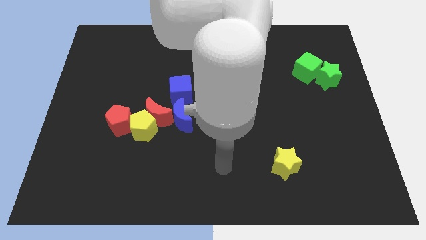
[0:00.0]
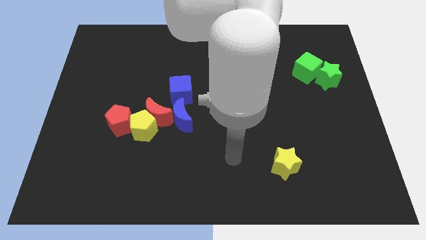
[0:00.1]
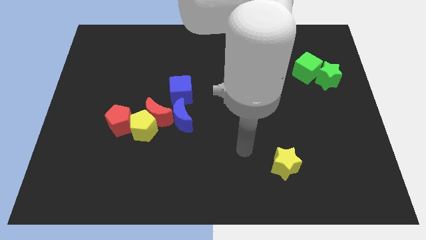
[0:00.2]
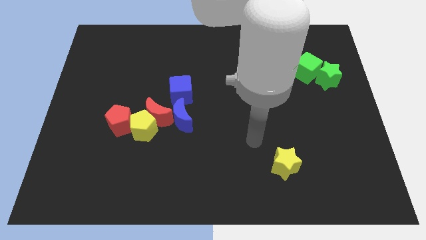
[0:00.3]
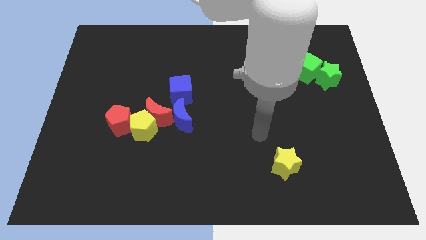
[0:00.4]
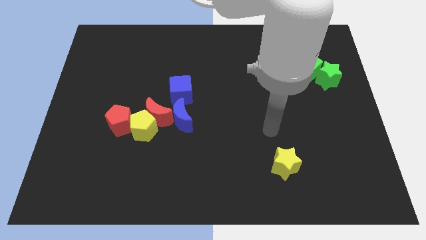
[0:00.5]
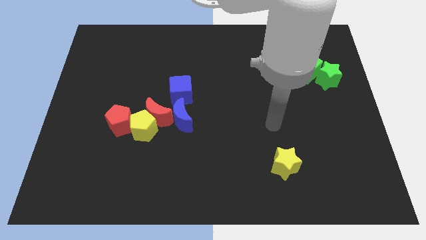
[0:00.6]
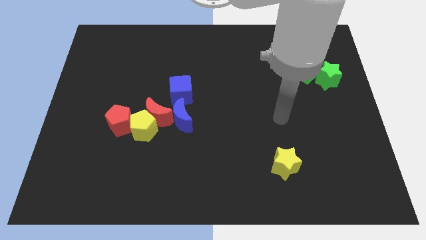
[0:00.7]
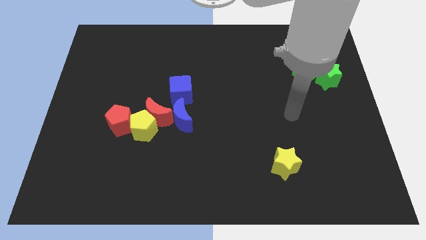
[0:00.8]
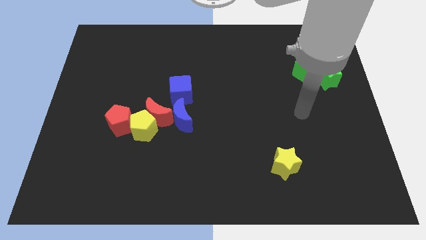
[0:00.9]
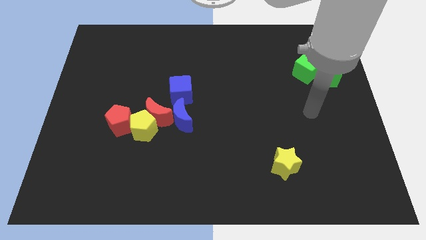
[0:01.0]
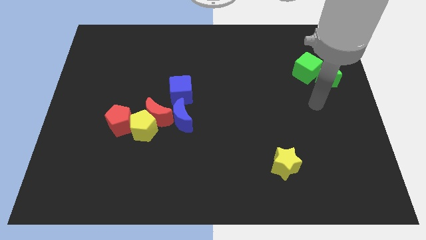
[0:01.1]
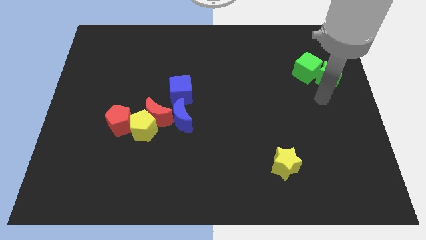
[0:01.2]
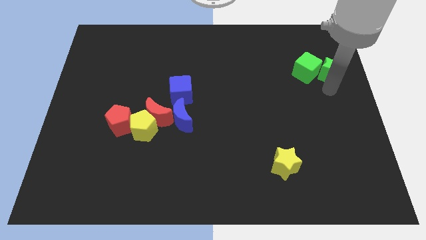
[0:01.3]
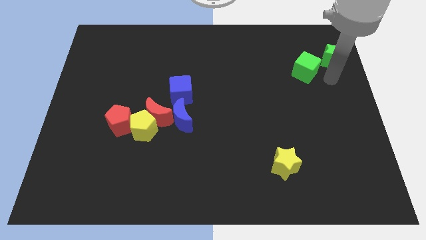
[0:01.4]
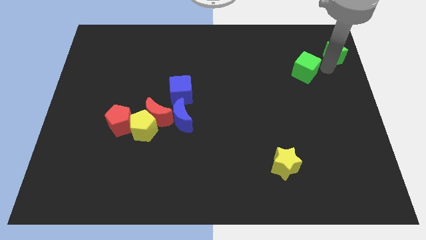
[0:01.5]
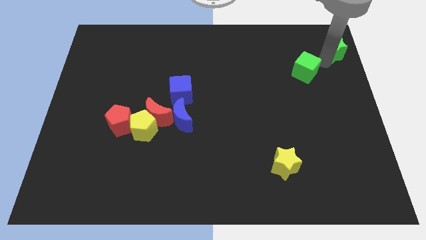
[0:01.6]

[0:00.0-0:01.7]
separate the green cube from the green star

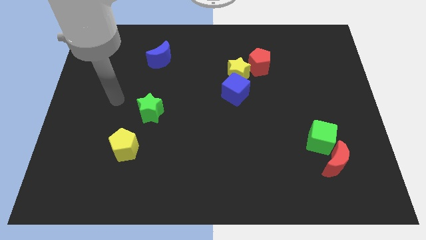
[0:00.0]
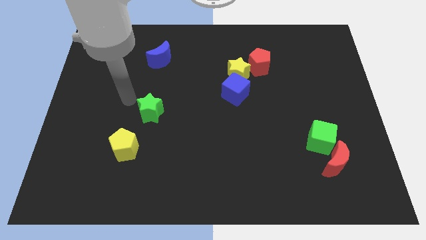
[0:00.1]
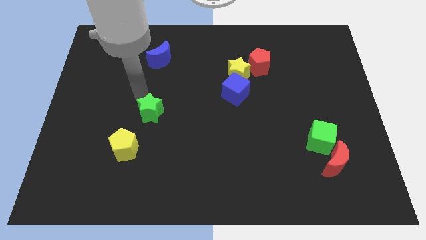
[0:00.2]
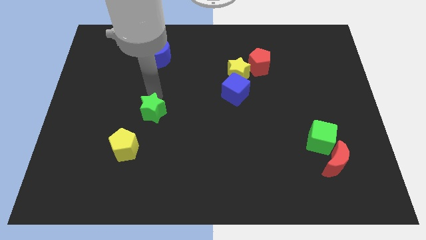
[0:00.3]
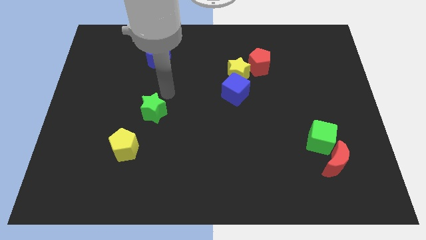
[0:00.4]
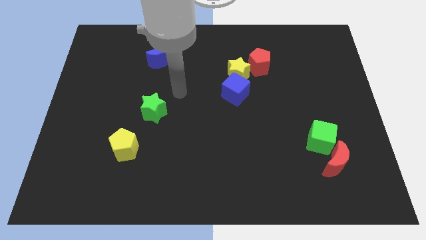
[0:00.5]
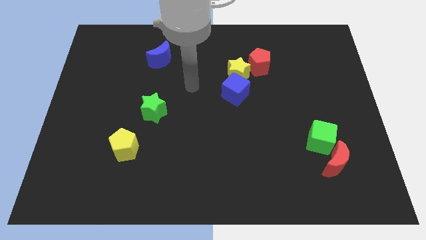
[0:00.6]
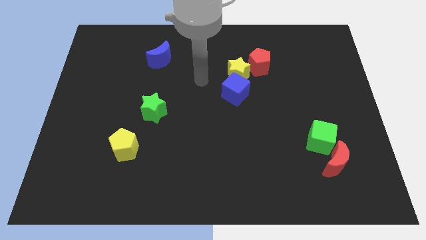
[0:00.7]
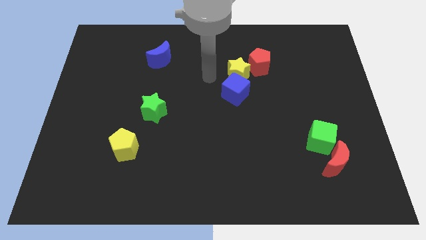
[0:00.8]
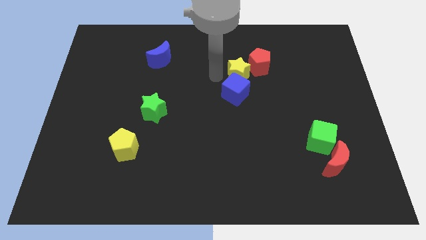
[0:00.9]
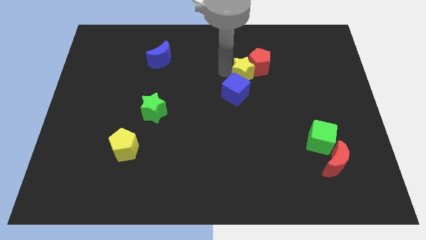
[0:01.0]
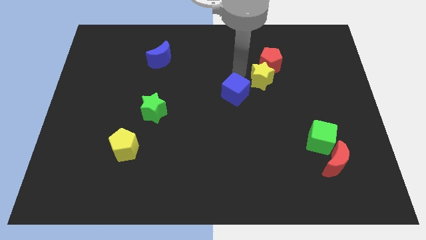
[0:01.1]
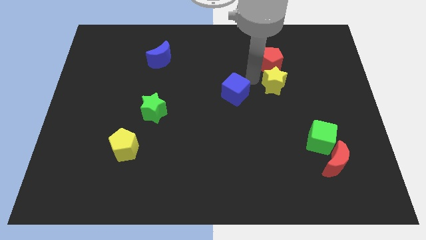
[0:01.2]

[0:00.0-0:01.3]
move the blue cube away from the yellow star

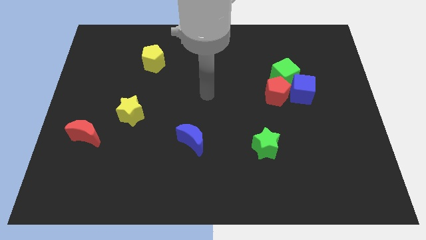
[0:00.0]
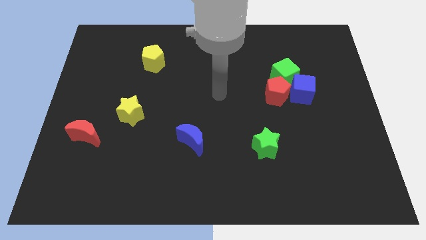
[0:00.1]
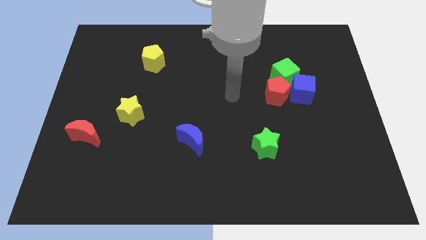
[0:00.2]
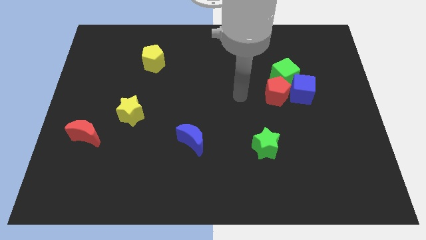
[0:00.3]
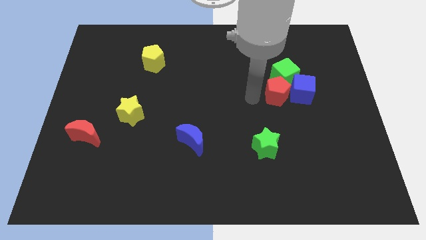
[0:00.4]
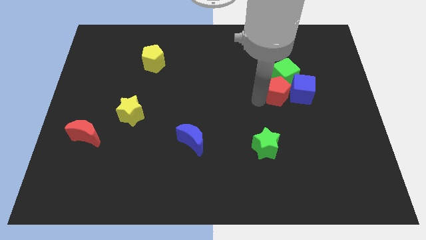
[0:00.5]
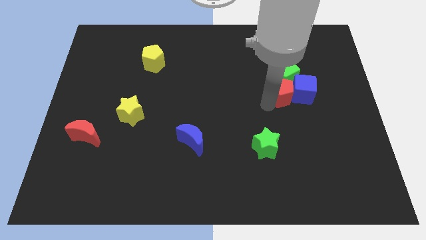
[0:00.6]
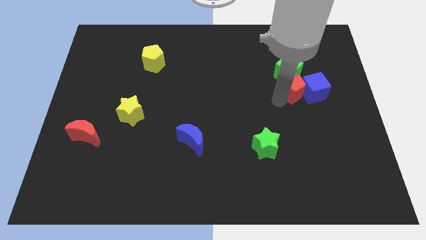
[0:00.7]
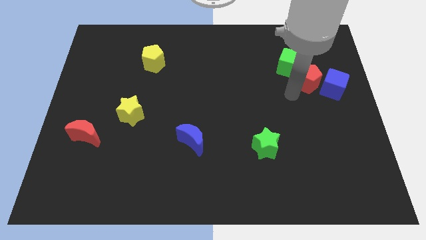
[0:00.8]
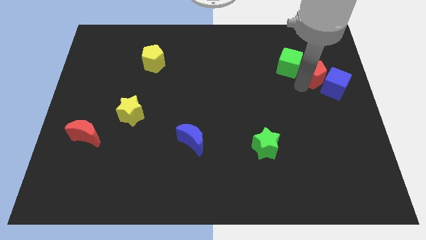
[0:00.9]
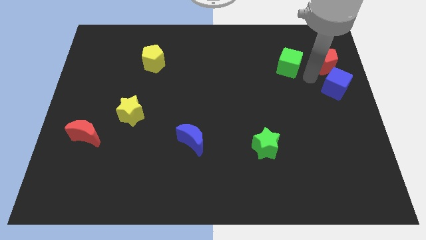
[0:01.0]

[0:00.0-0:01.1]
move the green cube away from the red pentagon and blue cube

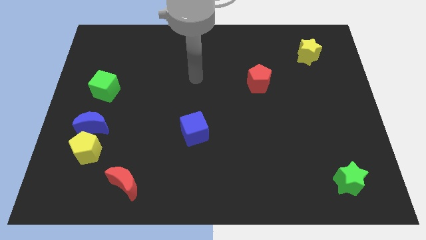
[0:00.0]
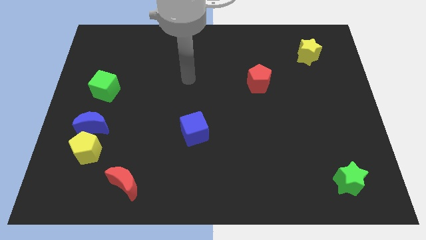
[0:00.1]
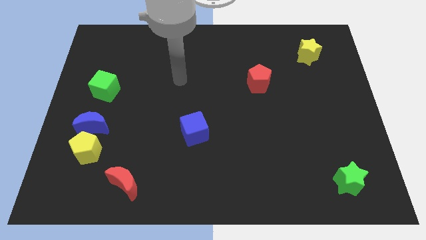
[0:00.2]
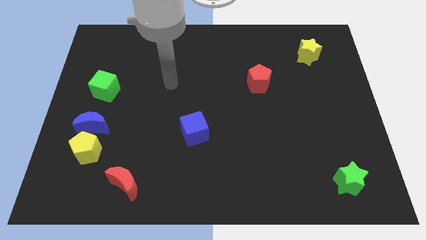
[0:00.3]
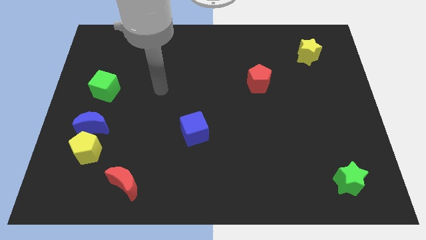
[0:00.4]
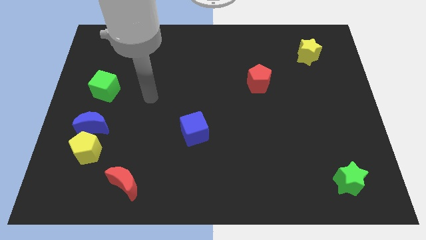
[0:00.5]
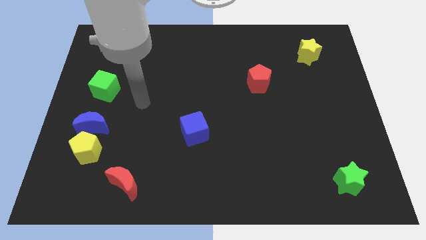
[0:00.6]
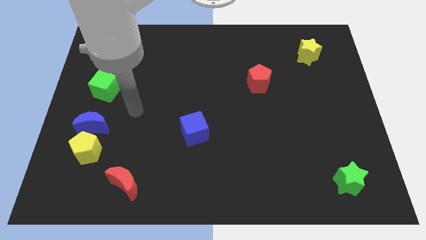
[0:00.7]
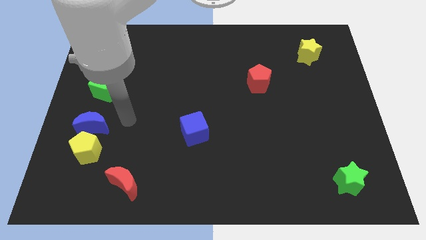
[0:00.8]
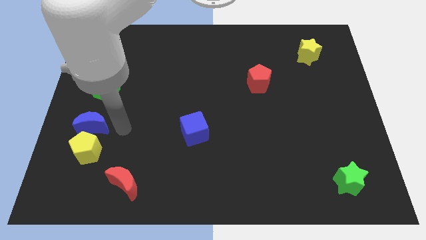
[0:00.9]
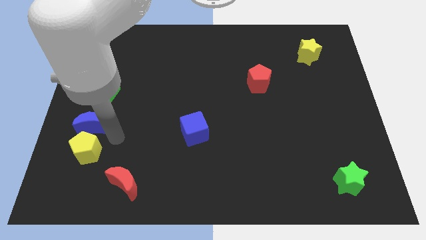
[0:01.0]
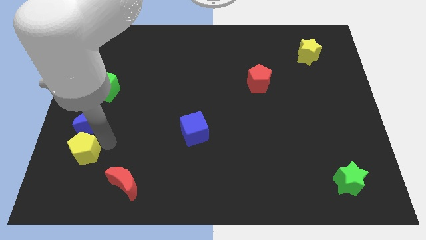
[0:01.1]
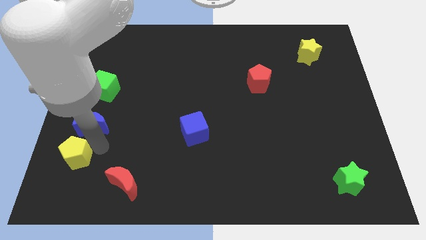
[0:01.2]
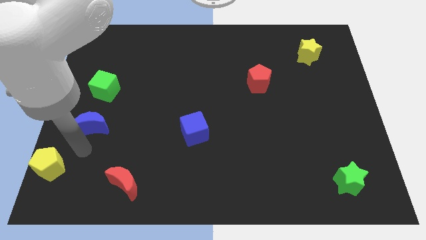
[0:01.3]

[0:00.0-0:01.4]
move the blue moon away from the yellow pentagon

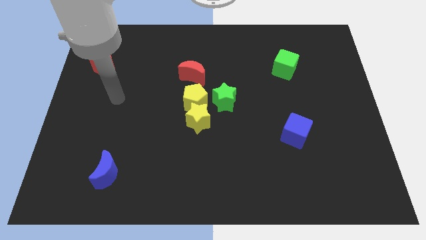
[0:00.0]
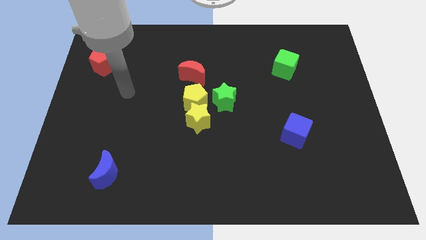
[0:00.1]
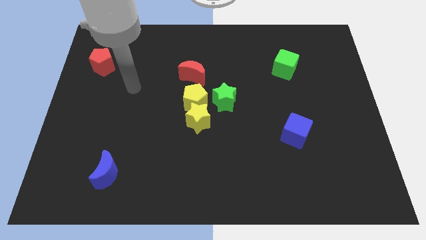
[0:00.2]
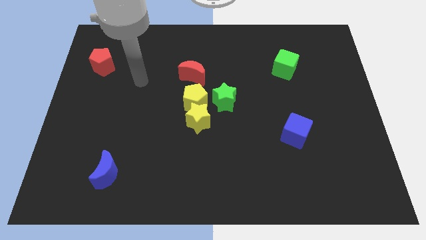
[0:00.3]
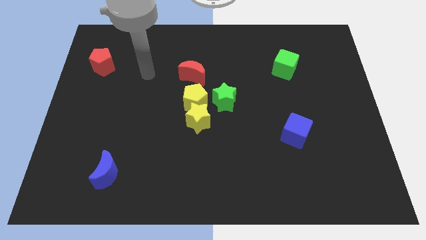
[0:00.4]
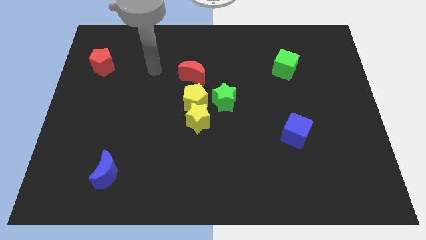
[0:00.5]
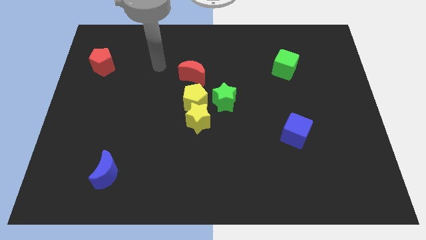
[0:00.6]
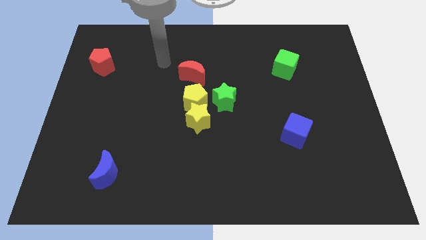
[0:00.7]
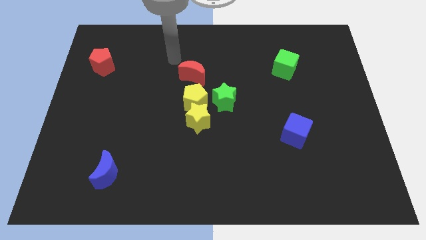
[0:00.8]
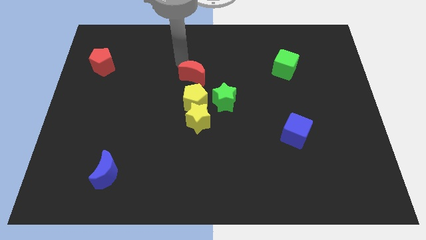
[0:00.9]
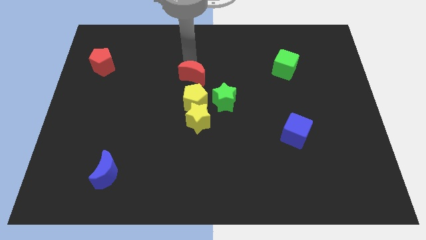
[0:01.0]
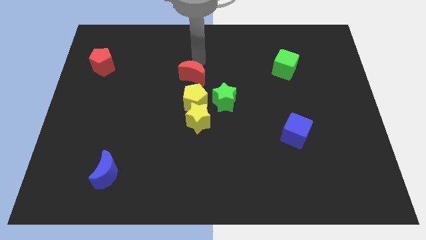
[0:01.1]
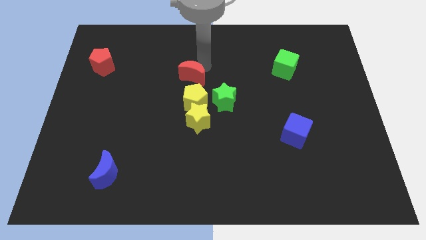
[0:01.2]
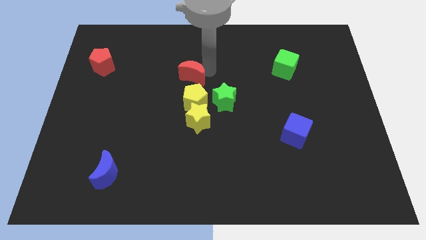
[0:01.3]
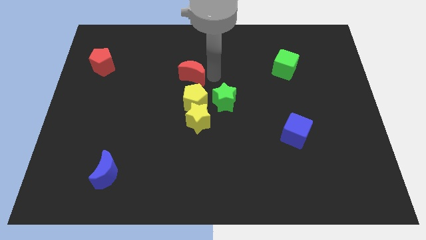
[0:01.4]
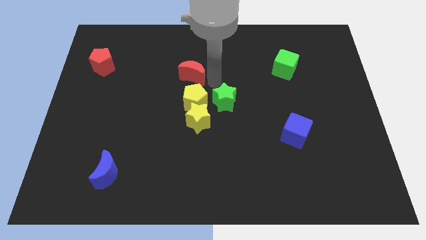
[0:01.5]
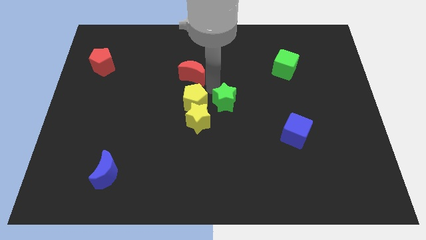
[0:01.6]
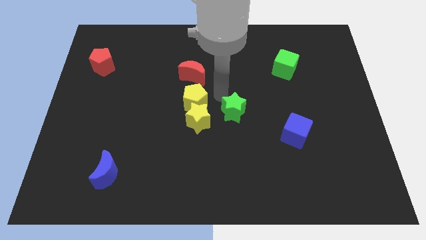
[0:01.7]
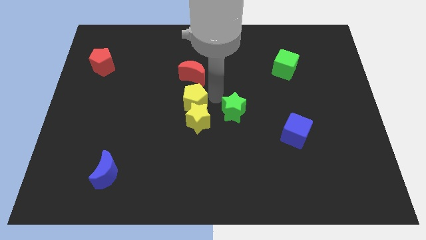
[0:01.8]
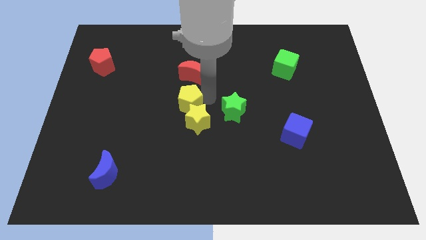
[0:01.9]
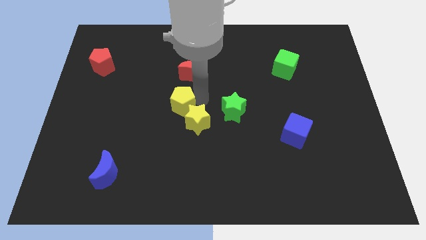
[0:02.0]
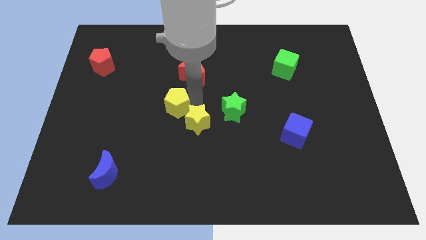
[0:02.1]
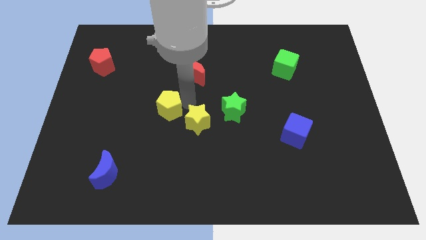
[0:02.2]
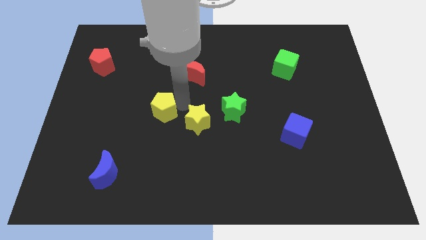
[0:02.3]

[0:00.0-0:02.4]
pull the yellow pentagon apart from the yellow star, green star, and red moon

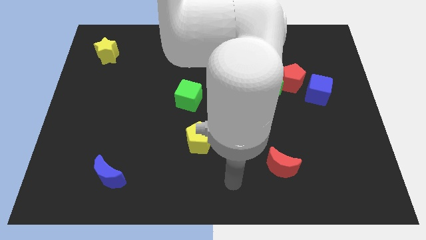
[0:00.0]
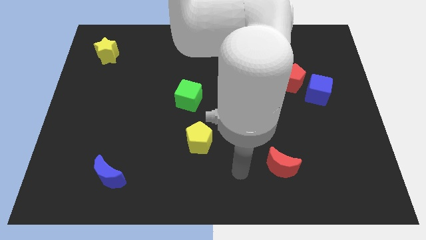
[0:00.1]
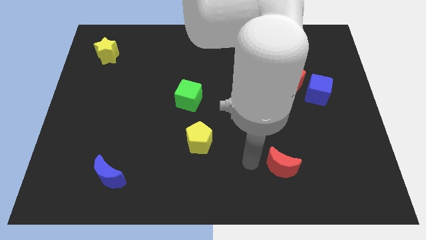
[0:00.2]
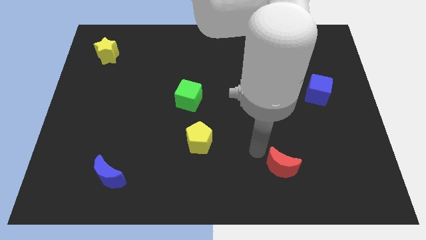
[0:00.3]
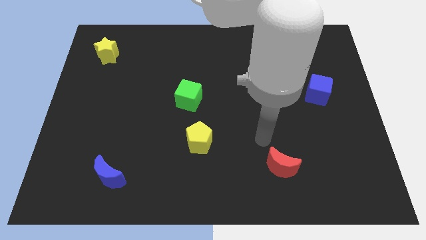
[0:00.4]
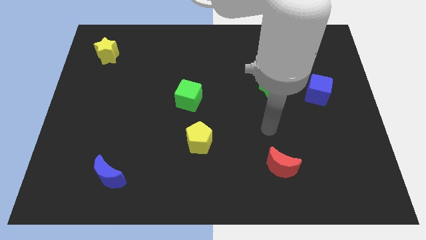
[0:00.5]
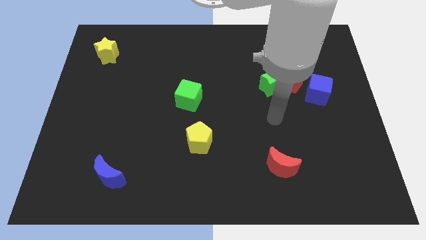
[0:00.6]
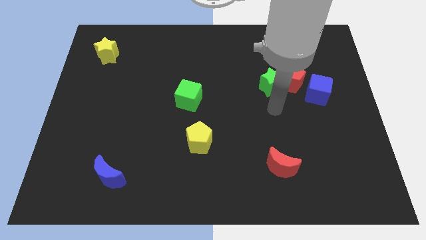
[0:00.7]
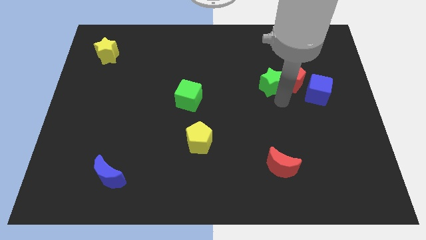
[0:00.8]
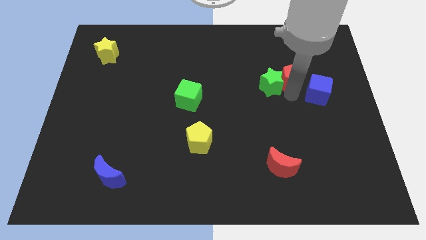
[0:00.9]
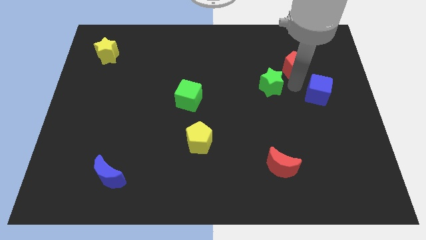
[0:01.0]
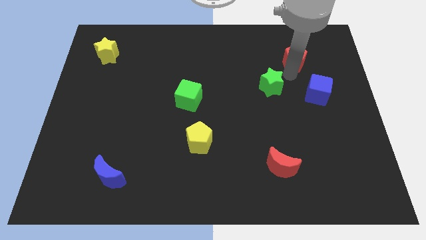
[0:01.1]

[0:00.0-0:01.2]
pull the green star apart from the red pentagon

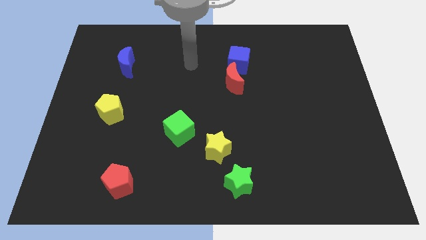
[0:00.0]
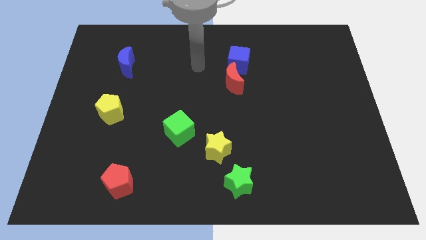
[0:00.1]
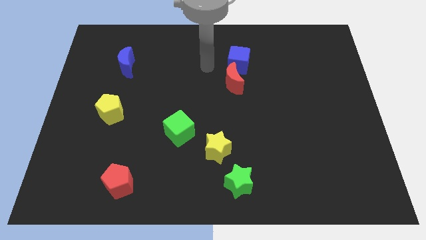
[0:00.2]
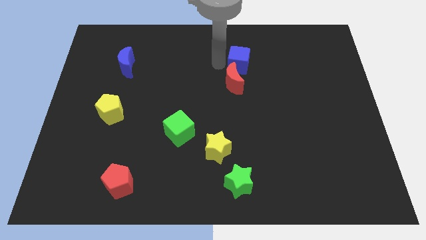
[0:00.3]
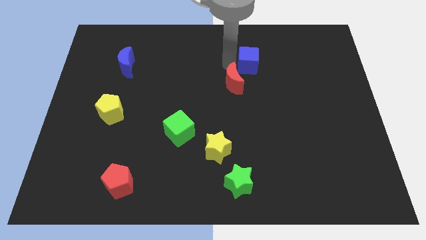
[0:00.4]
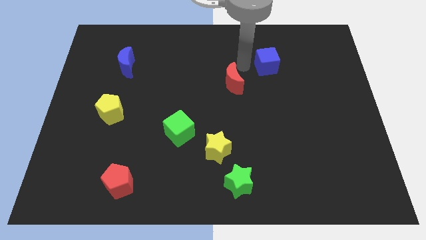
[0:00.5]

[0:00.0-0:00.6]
separate the red moon from the blue cube
